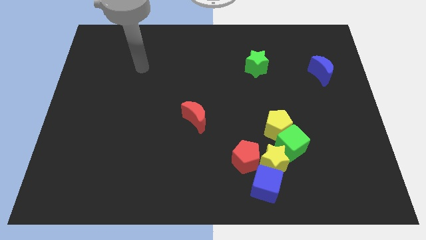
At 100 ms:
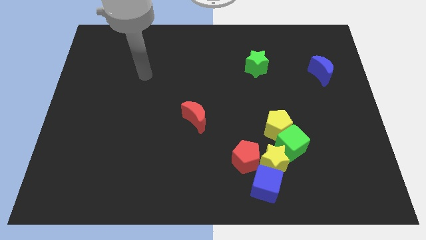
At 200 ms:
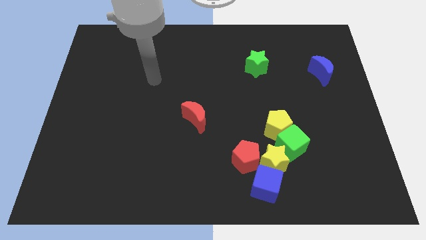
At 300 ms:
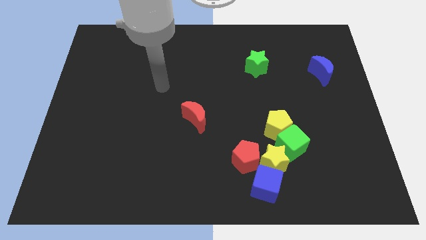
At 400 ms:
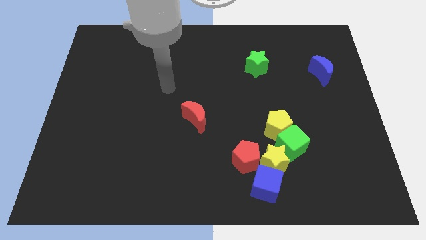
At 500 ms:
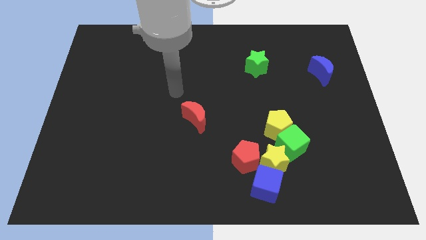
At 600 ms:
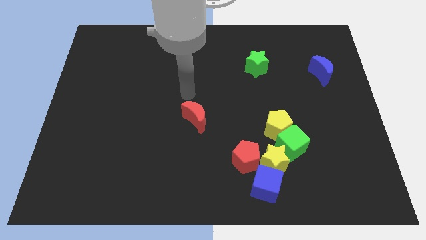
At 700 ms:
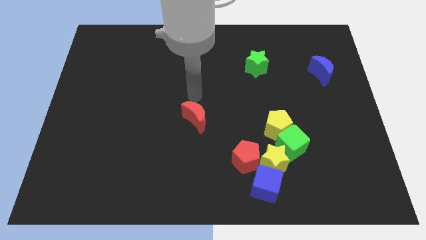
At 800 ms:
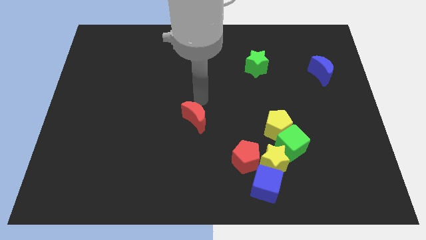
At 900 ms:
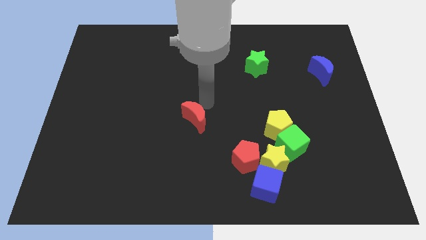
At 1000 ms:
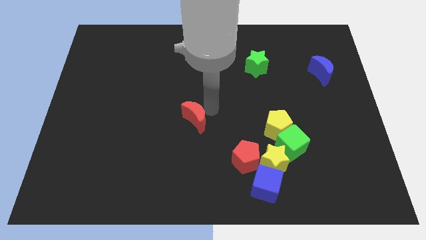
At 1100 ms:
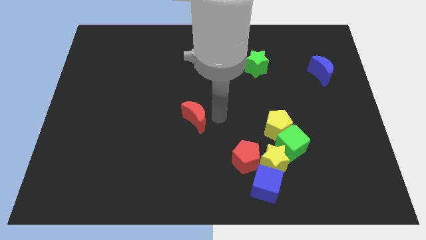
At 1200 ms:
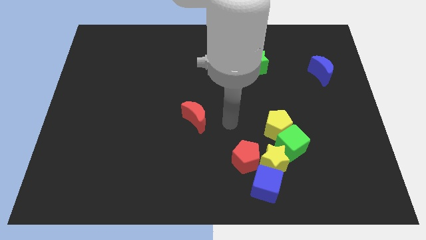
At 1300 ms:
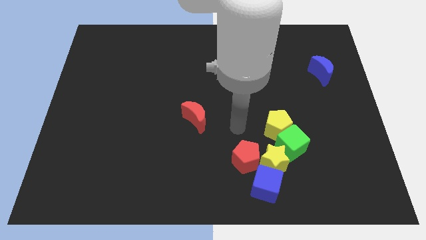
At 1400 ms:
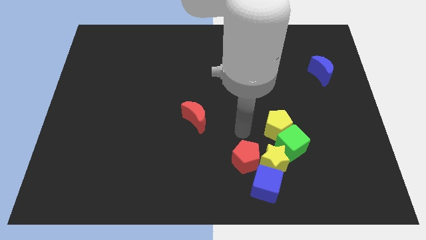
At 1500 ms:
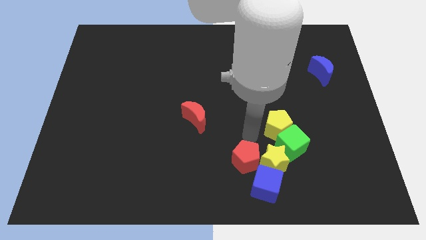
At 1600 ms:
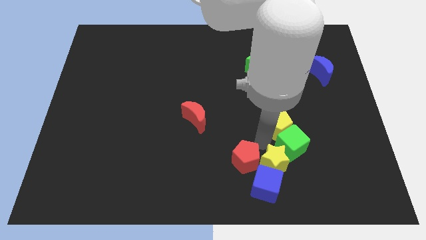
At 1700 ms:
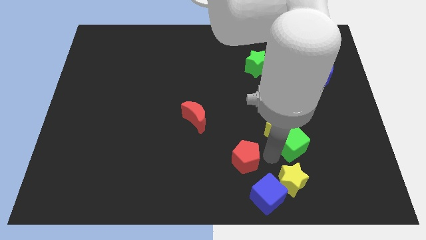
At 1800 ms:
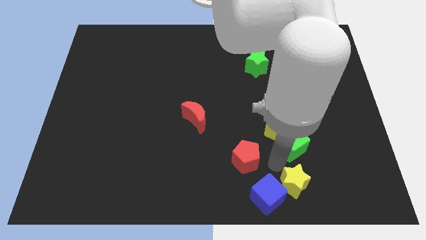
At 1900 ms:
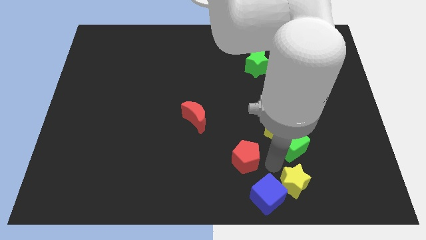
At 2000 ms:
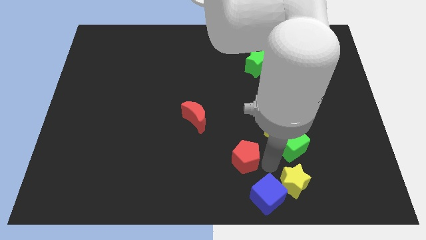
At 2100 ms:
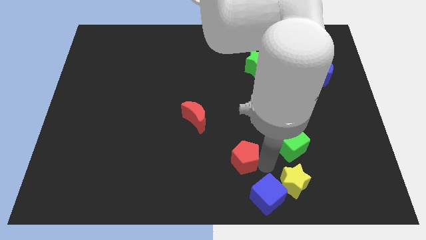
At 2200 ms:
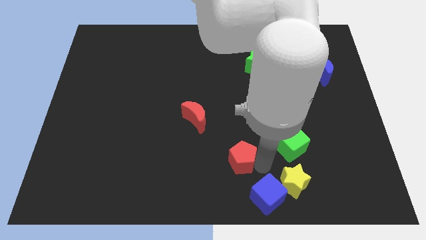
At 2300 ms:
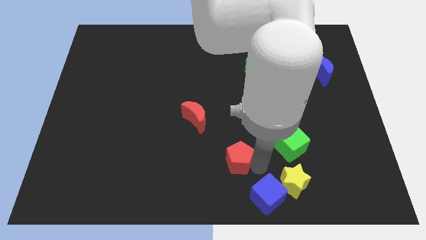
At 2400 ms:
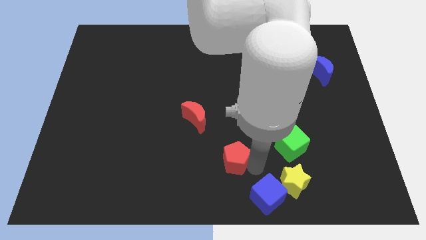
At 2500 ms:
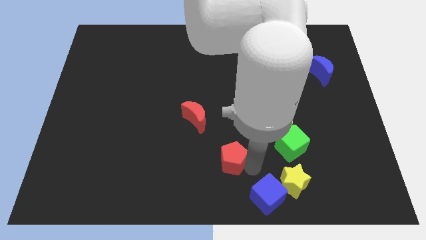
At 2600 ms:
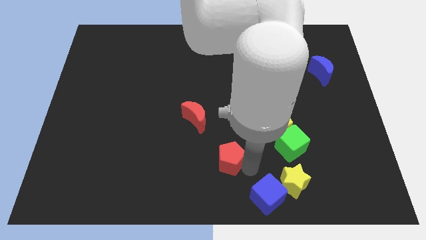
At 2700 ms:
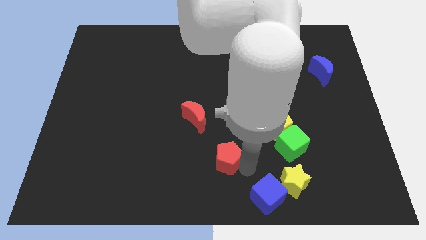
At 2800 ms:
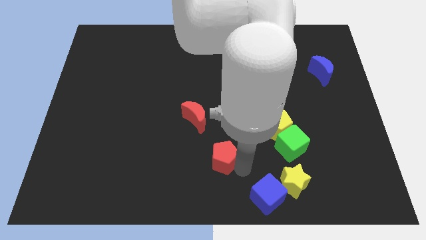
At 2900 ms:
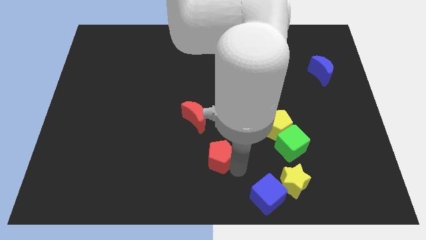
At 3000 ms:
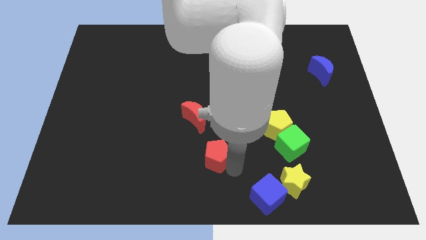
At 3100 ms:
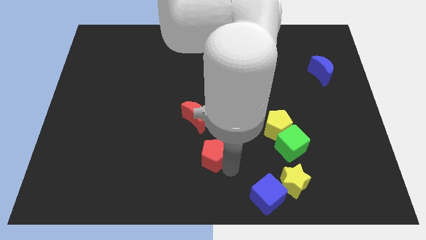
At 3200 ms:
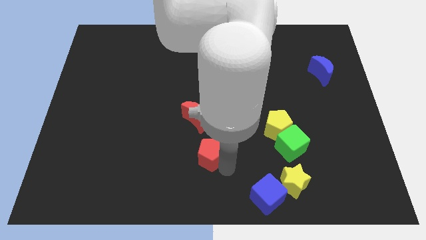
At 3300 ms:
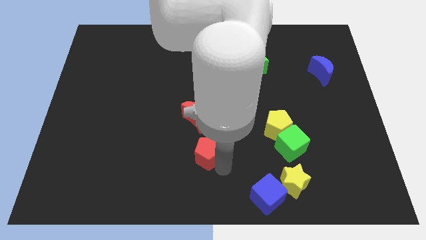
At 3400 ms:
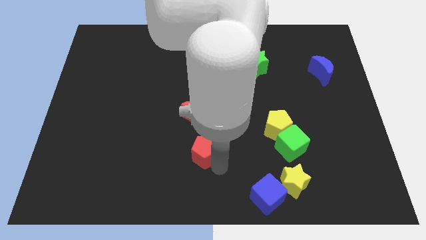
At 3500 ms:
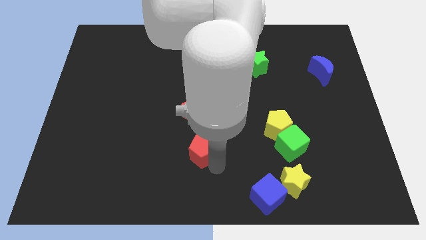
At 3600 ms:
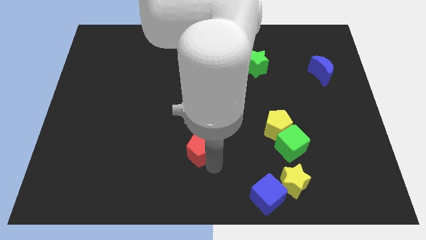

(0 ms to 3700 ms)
slightly slide the red pentagon upwards and left diagonally

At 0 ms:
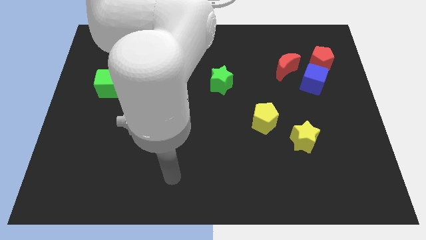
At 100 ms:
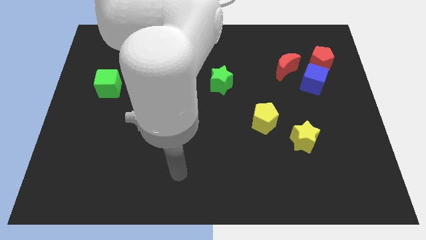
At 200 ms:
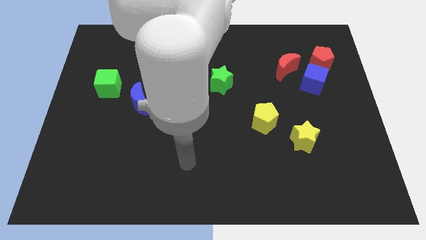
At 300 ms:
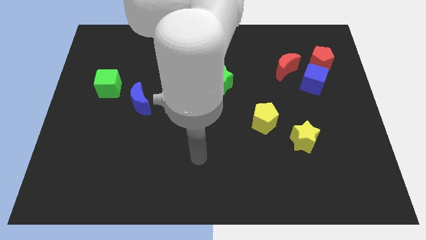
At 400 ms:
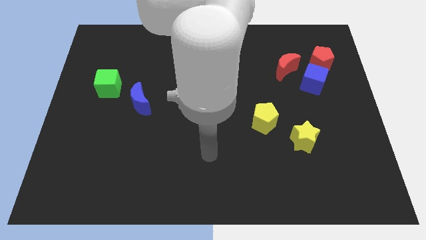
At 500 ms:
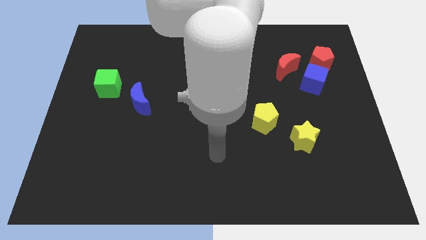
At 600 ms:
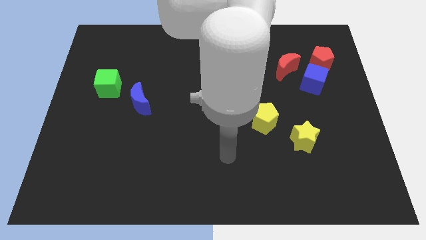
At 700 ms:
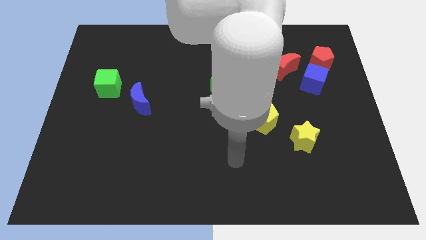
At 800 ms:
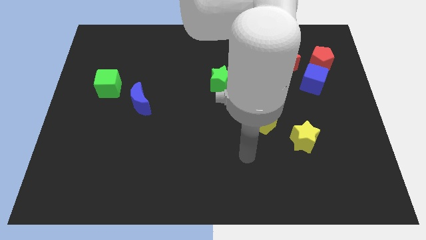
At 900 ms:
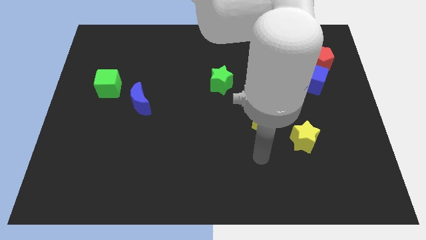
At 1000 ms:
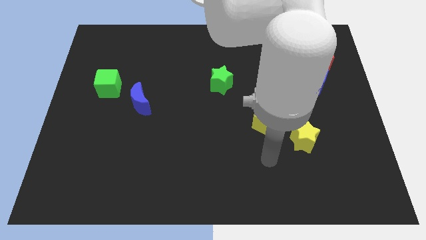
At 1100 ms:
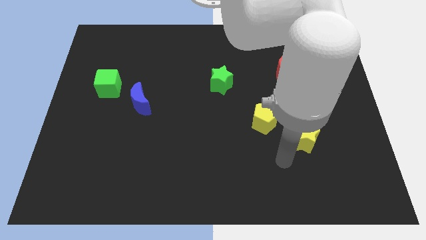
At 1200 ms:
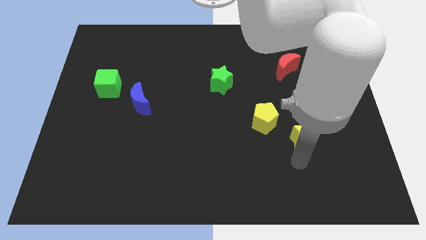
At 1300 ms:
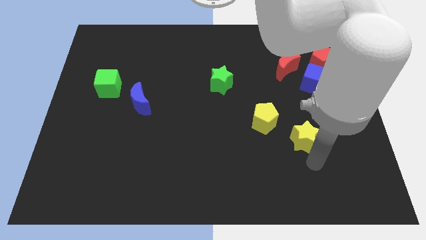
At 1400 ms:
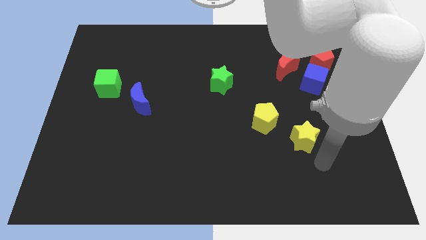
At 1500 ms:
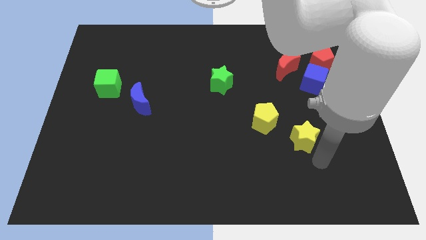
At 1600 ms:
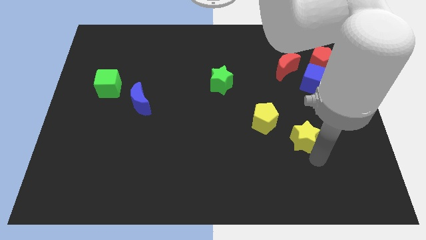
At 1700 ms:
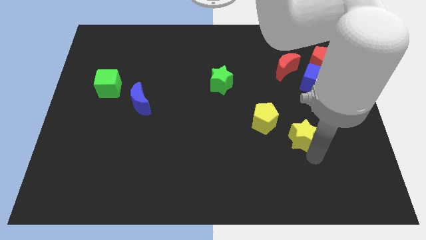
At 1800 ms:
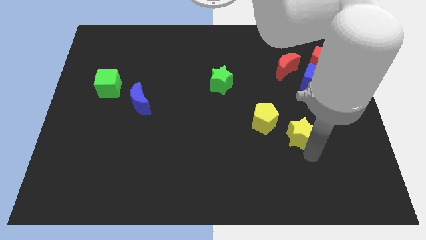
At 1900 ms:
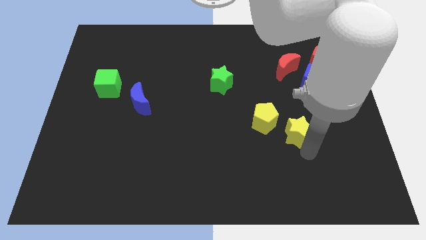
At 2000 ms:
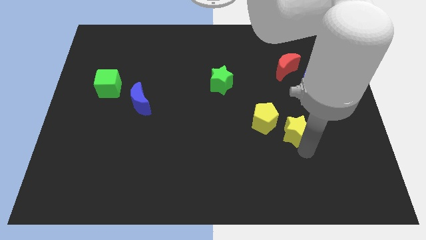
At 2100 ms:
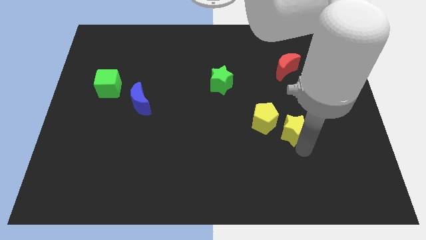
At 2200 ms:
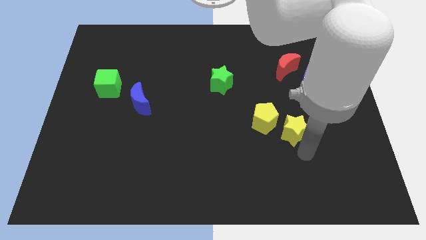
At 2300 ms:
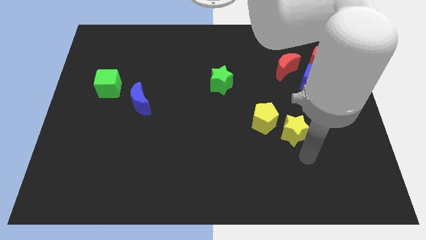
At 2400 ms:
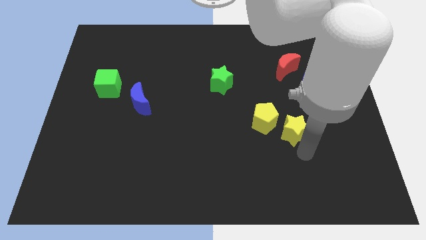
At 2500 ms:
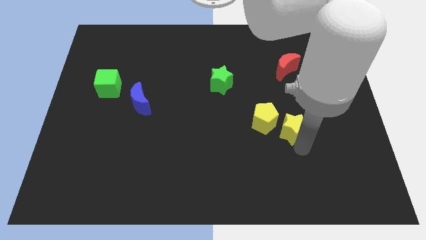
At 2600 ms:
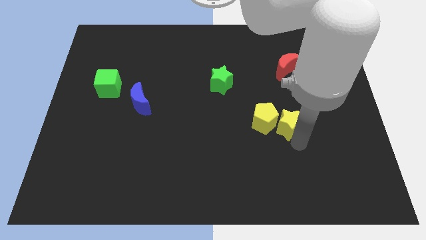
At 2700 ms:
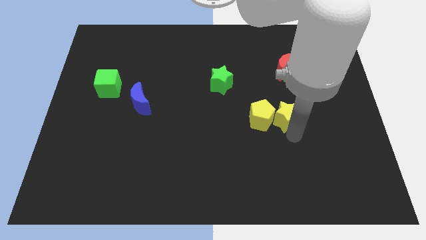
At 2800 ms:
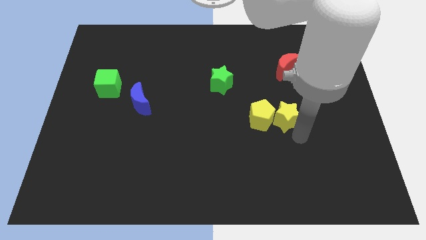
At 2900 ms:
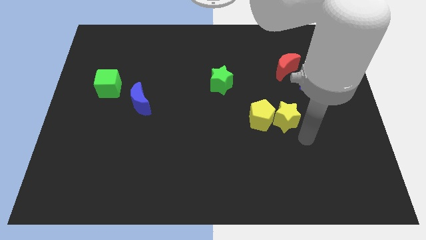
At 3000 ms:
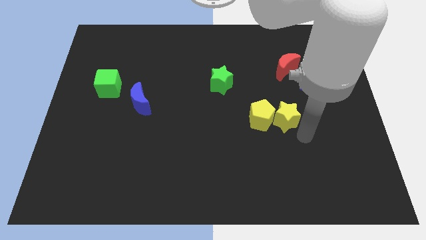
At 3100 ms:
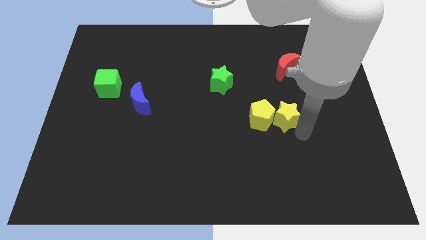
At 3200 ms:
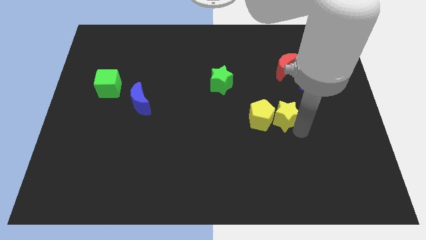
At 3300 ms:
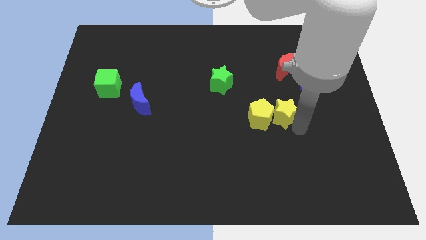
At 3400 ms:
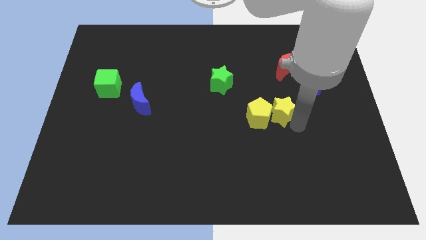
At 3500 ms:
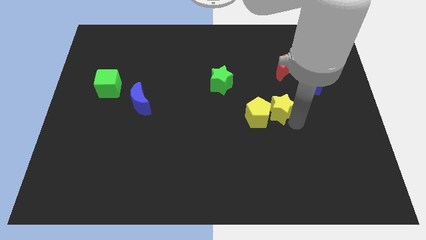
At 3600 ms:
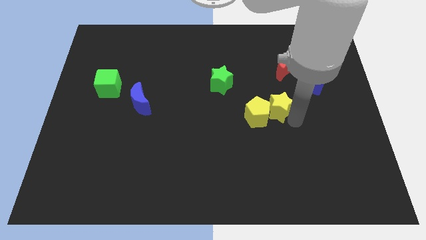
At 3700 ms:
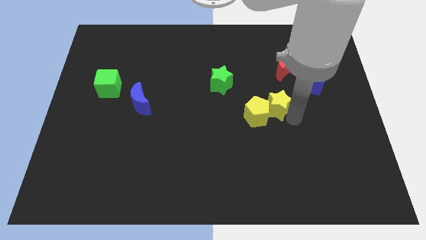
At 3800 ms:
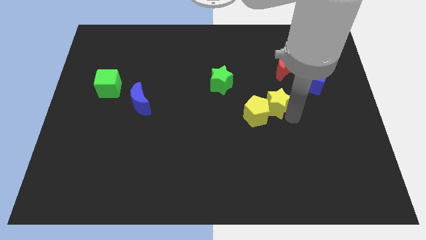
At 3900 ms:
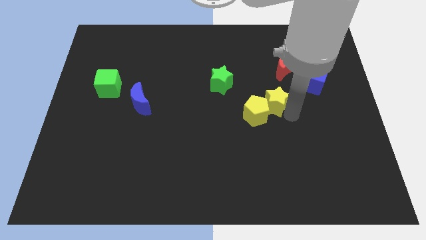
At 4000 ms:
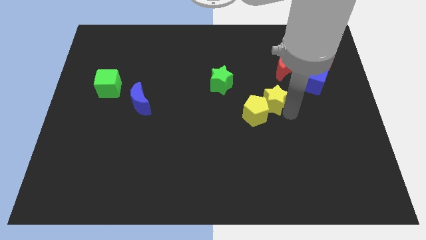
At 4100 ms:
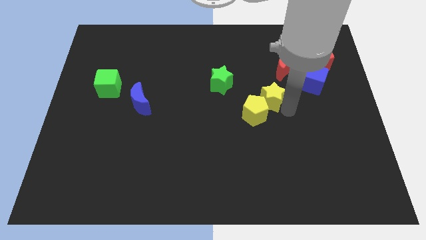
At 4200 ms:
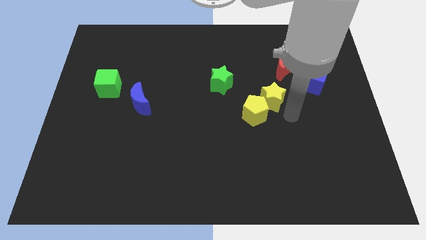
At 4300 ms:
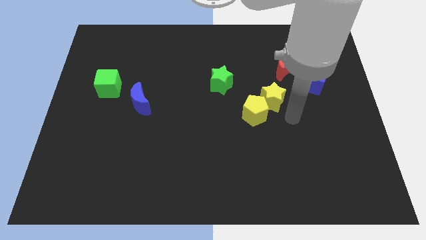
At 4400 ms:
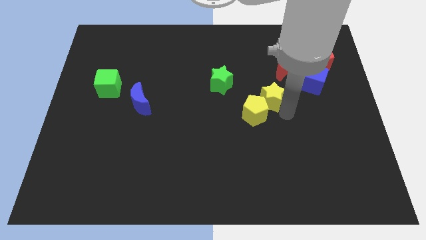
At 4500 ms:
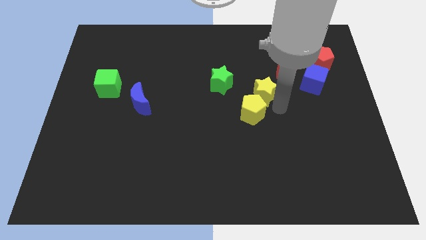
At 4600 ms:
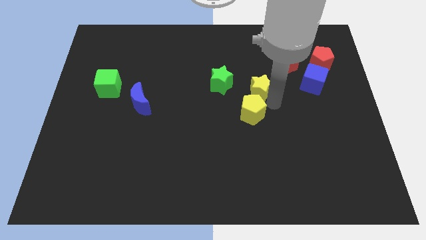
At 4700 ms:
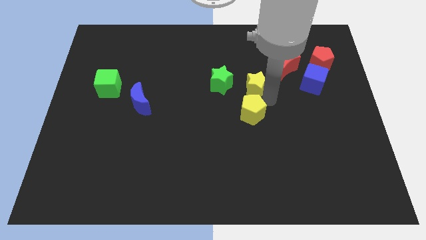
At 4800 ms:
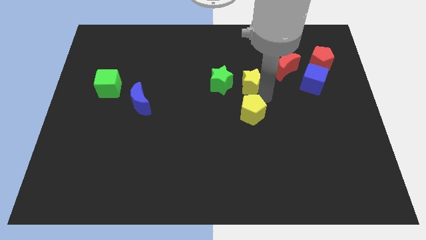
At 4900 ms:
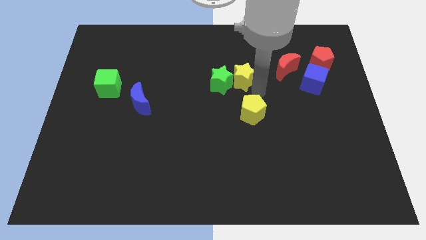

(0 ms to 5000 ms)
slide the yellow star diagonally up and to the left
